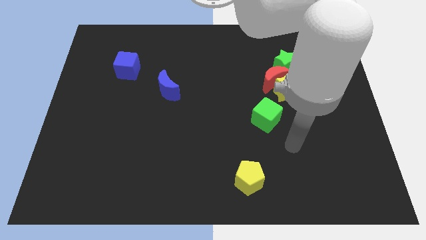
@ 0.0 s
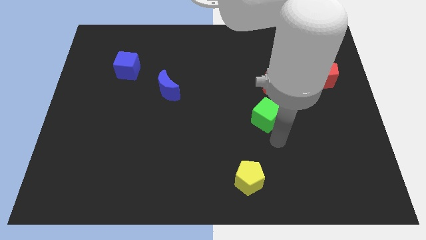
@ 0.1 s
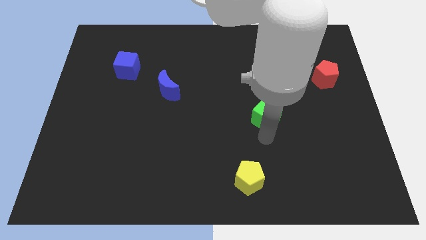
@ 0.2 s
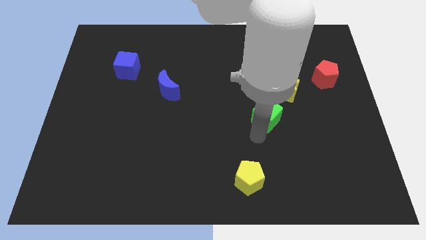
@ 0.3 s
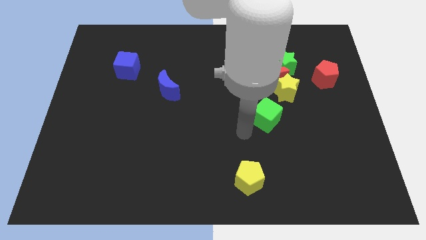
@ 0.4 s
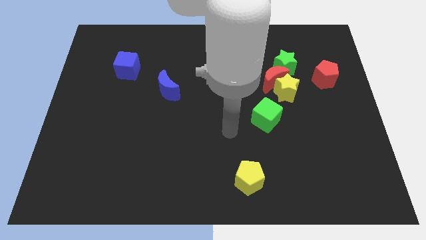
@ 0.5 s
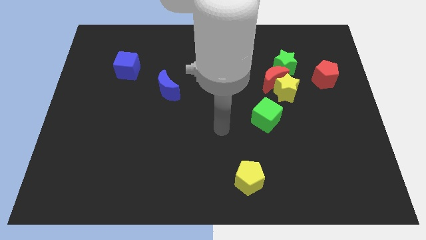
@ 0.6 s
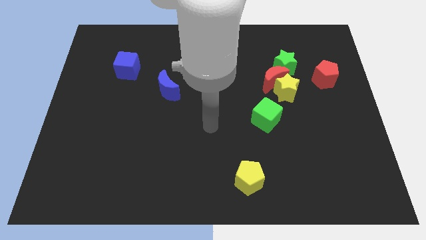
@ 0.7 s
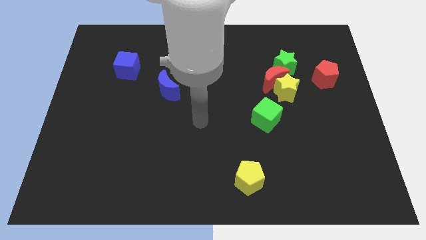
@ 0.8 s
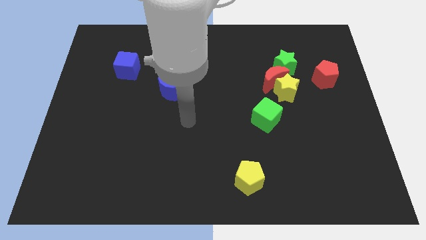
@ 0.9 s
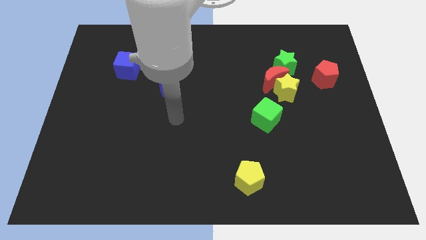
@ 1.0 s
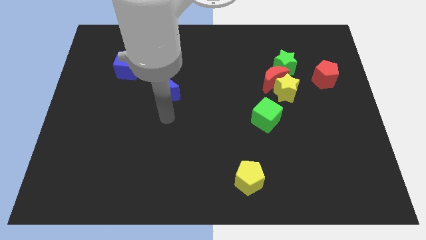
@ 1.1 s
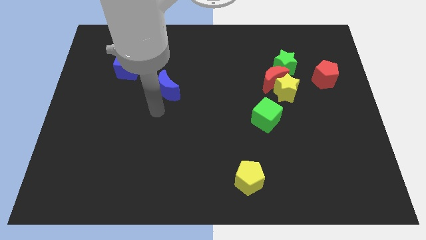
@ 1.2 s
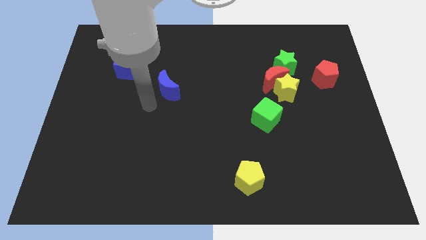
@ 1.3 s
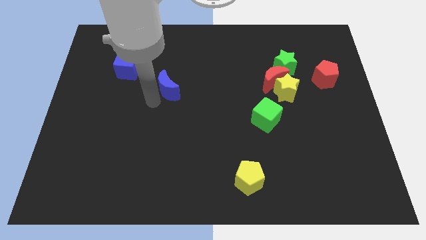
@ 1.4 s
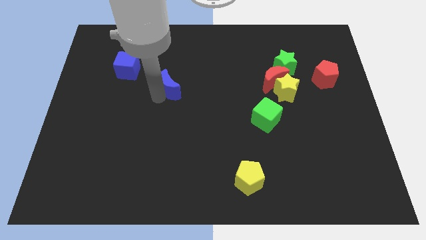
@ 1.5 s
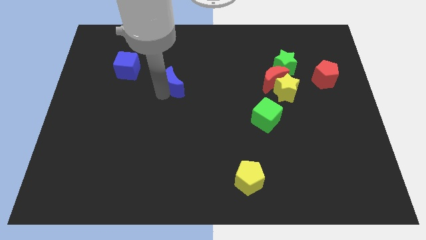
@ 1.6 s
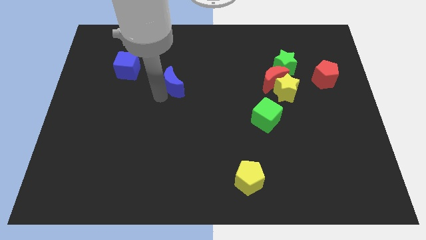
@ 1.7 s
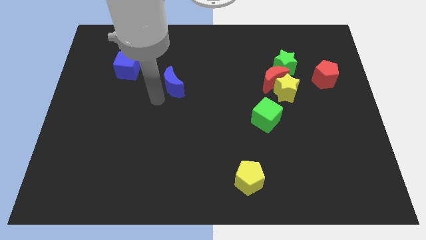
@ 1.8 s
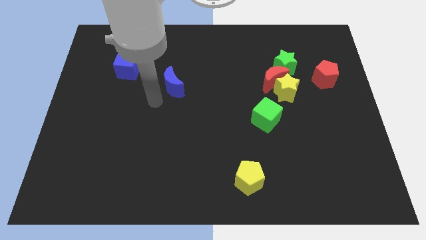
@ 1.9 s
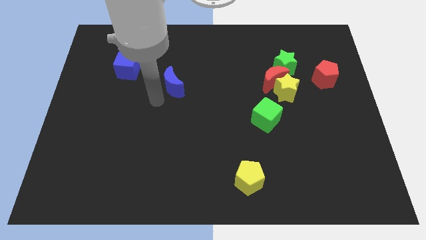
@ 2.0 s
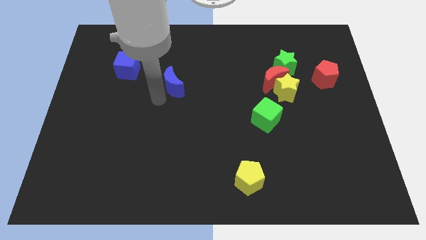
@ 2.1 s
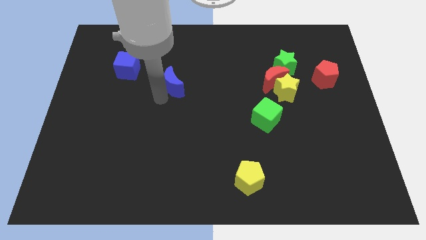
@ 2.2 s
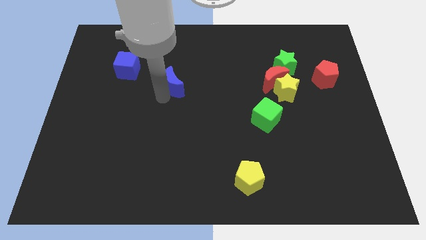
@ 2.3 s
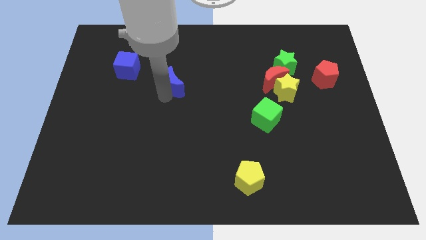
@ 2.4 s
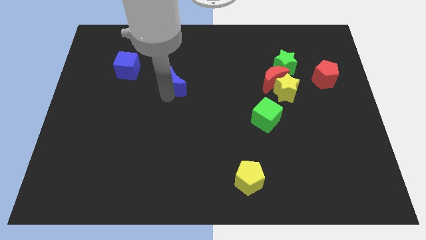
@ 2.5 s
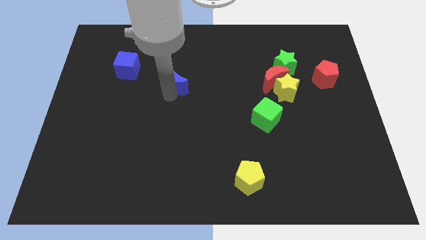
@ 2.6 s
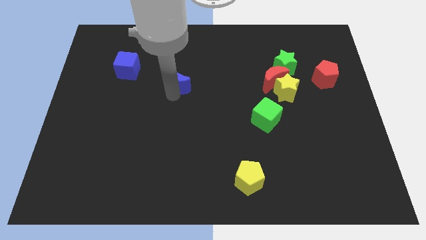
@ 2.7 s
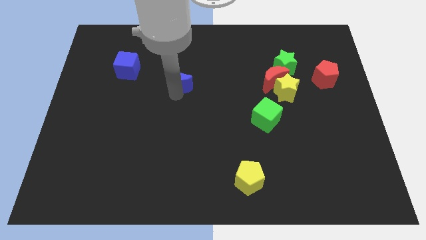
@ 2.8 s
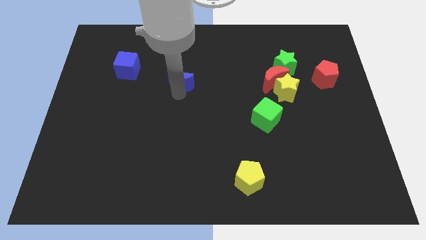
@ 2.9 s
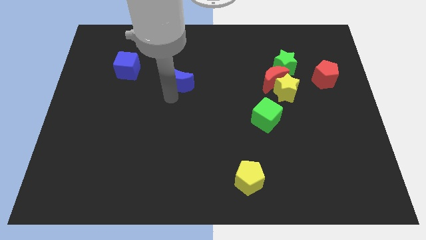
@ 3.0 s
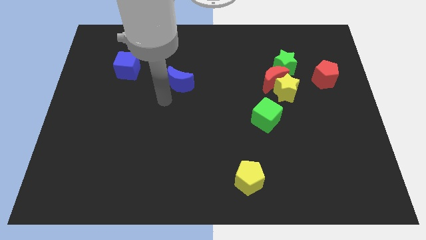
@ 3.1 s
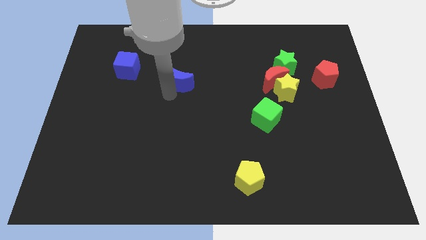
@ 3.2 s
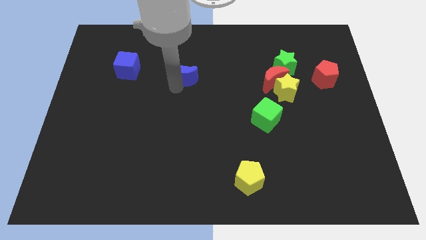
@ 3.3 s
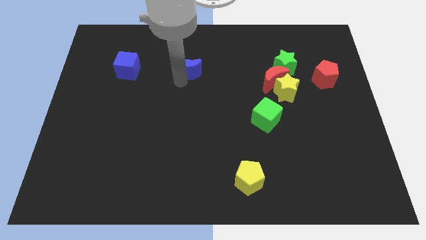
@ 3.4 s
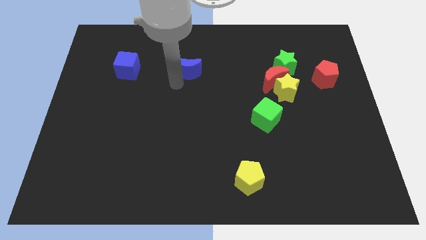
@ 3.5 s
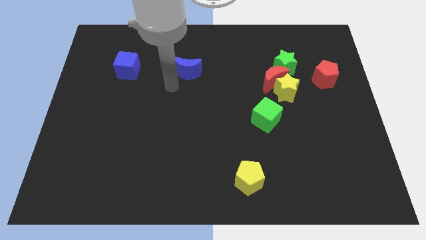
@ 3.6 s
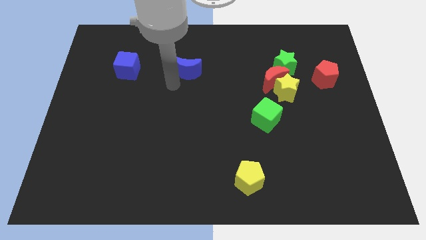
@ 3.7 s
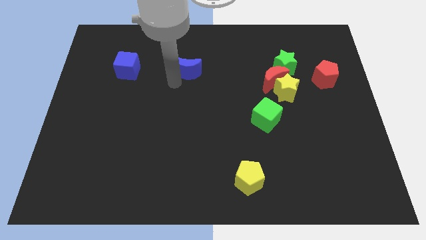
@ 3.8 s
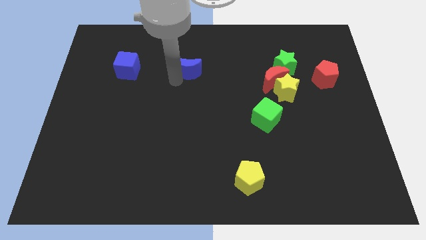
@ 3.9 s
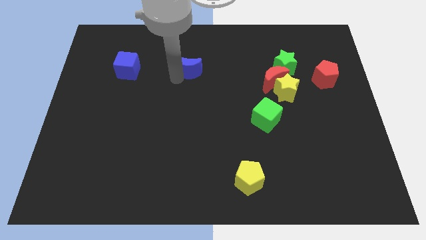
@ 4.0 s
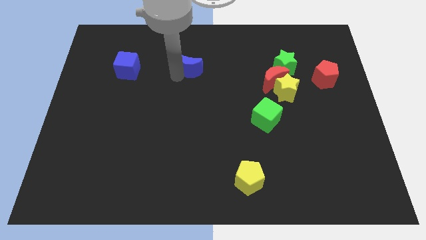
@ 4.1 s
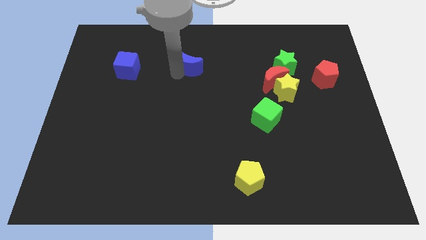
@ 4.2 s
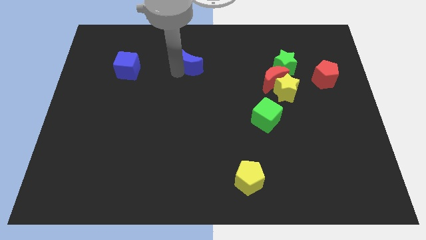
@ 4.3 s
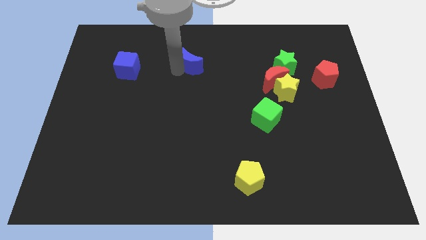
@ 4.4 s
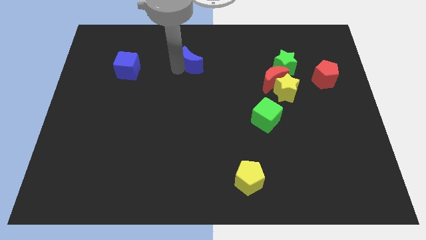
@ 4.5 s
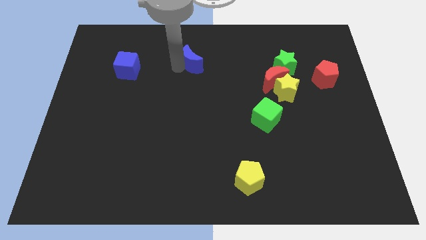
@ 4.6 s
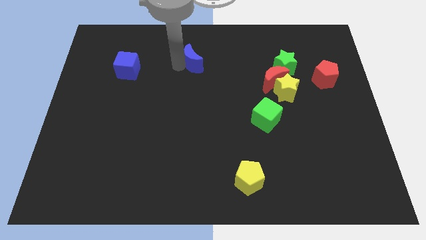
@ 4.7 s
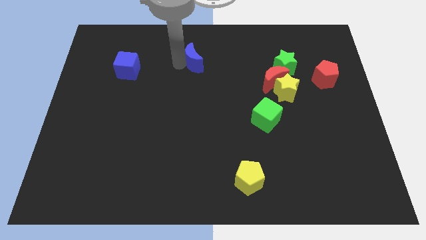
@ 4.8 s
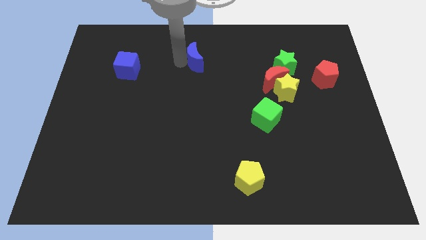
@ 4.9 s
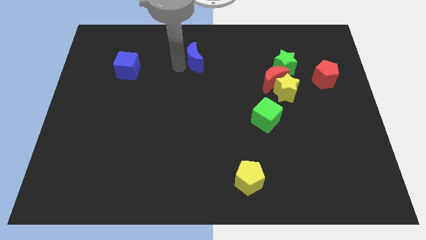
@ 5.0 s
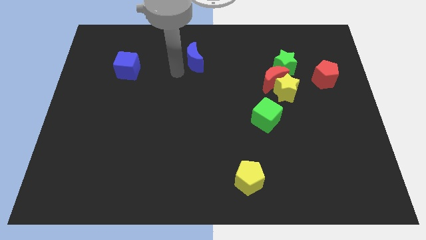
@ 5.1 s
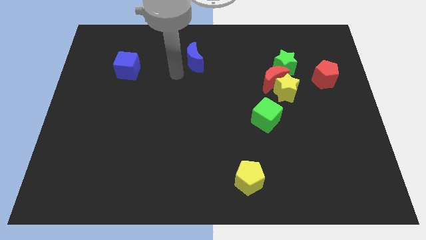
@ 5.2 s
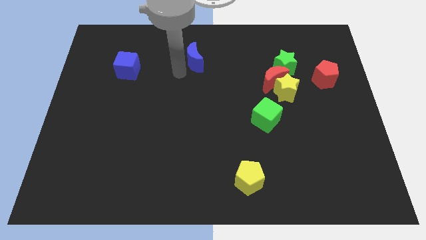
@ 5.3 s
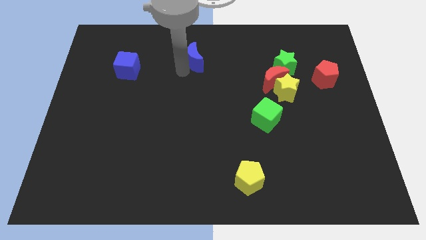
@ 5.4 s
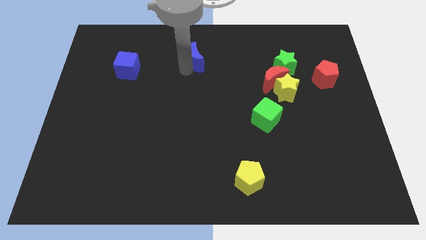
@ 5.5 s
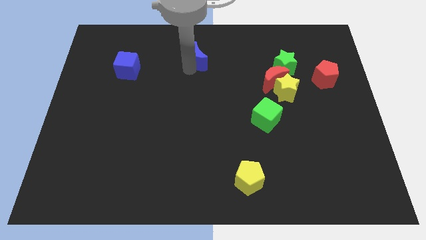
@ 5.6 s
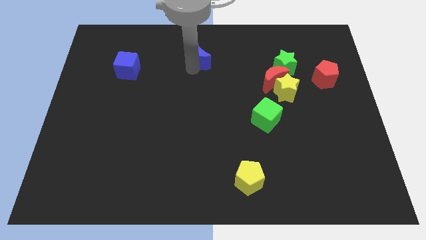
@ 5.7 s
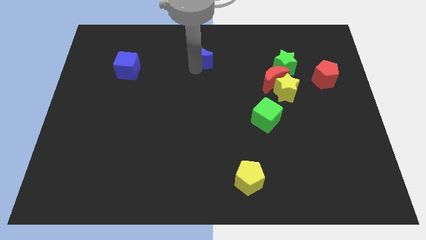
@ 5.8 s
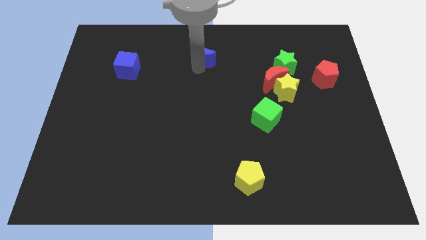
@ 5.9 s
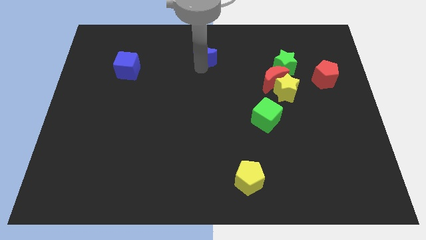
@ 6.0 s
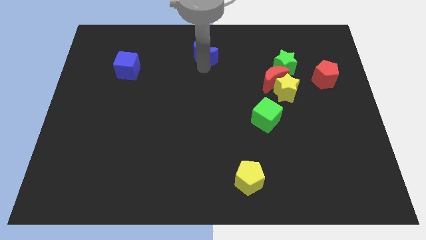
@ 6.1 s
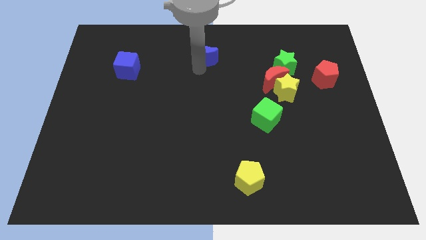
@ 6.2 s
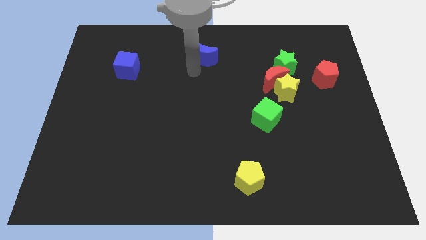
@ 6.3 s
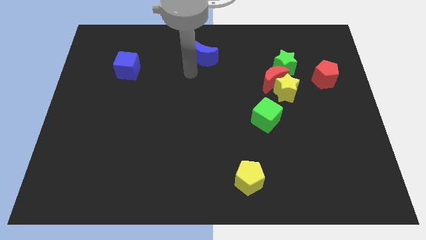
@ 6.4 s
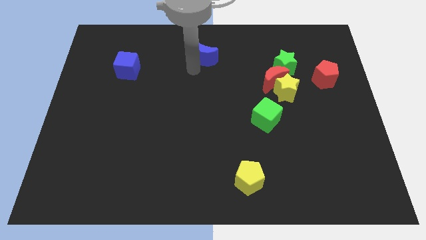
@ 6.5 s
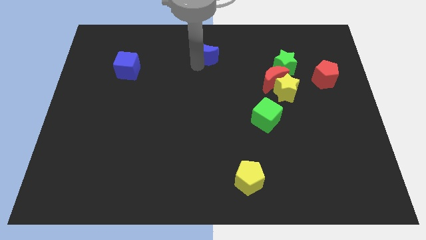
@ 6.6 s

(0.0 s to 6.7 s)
move the blue moon to the towards your base
